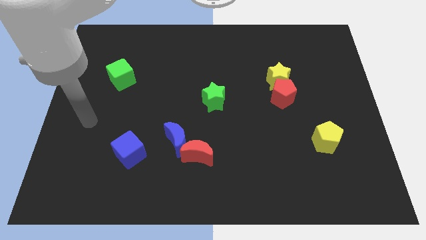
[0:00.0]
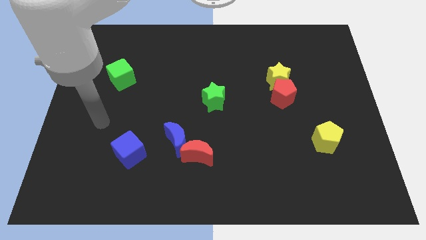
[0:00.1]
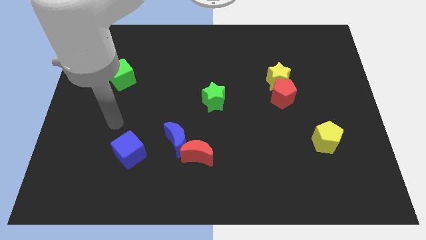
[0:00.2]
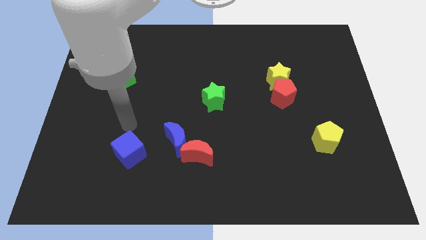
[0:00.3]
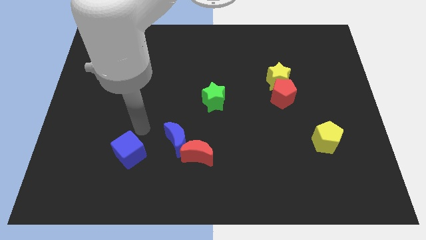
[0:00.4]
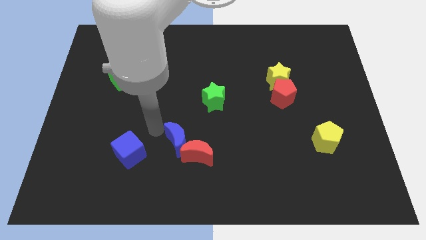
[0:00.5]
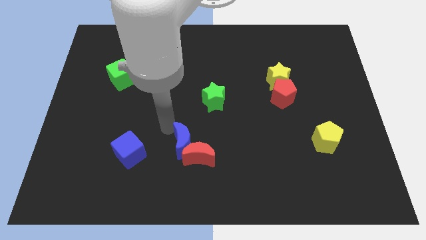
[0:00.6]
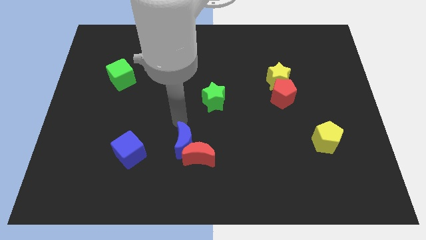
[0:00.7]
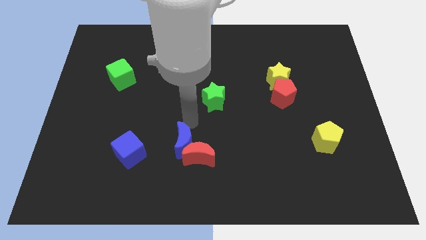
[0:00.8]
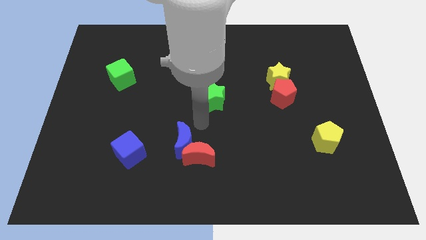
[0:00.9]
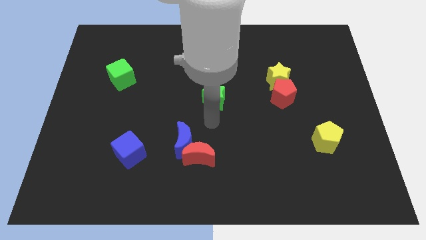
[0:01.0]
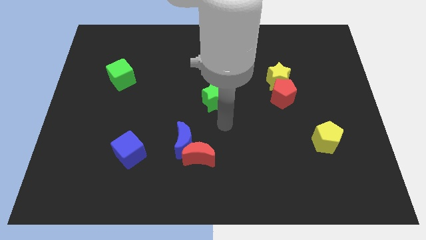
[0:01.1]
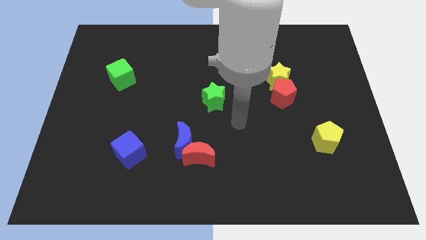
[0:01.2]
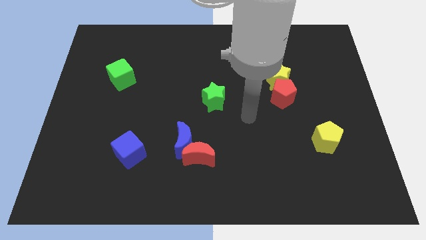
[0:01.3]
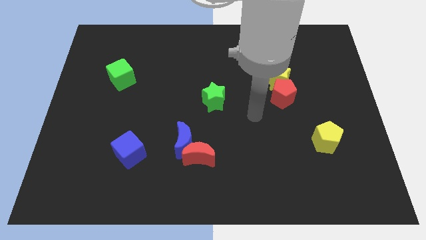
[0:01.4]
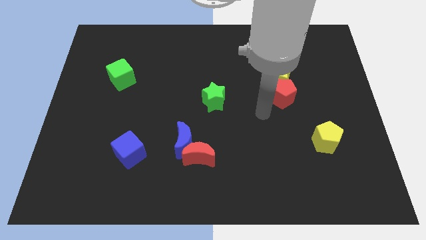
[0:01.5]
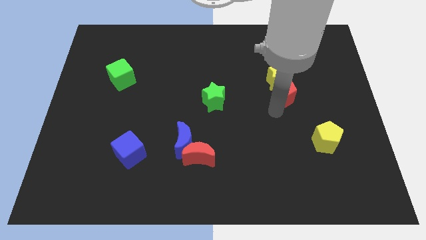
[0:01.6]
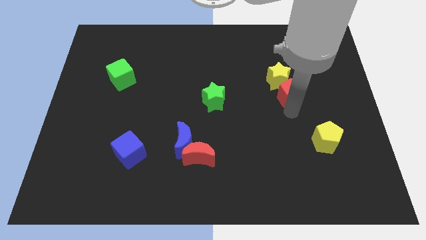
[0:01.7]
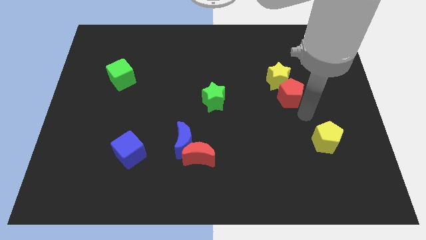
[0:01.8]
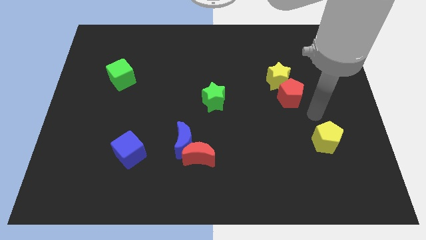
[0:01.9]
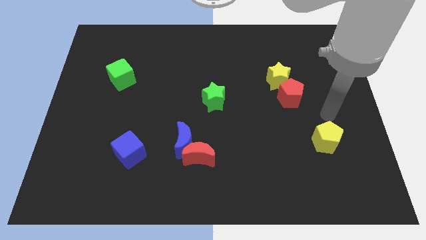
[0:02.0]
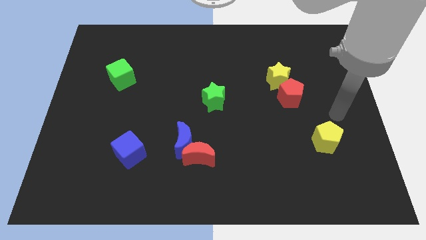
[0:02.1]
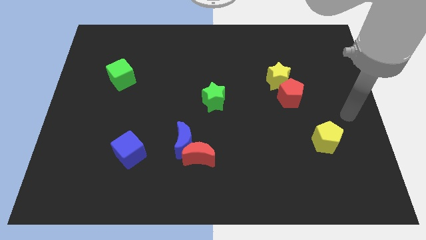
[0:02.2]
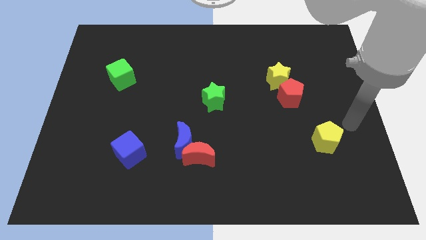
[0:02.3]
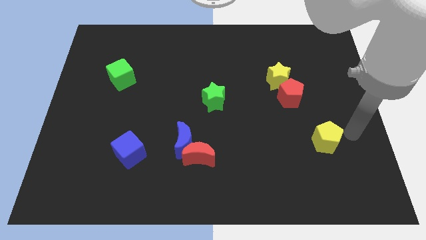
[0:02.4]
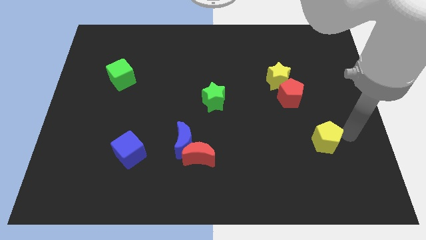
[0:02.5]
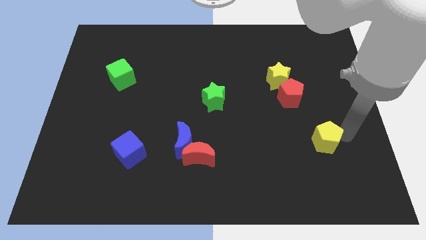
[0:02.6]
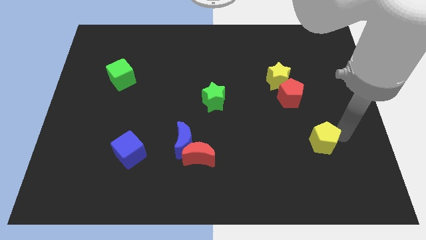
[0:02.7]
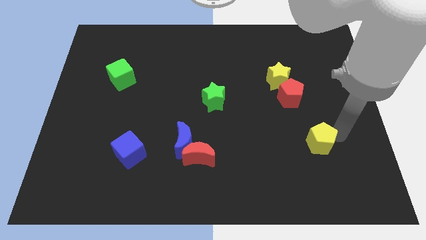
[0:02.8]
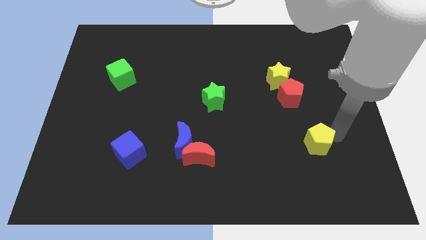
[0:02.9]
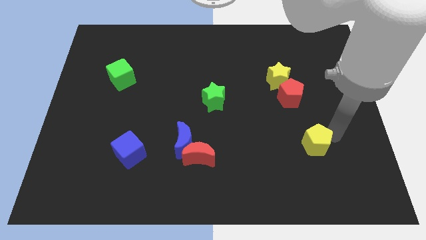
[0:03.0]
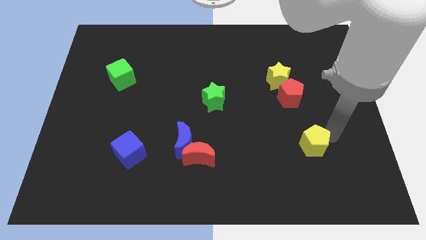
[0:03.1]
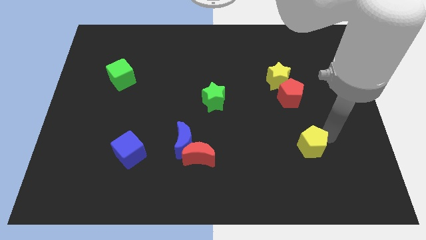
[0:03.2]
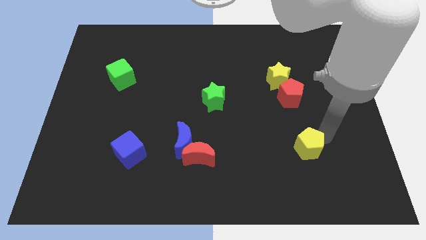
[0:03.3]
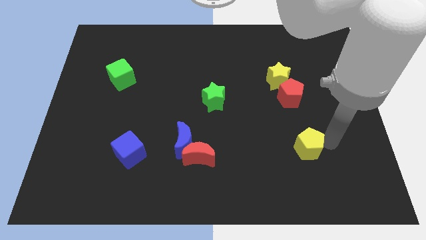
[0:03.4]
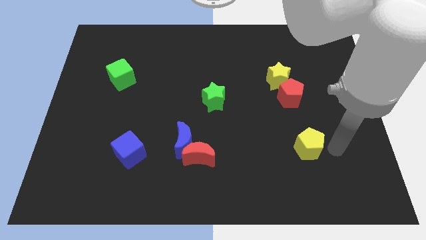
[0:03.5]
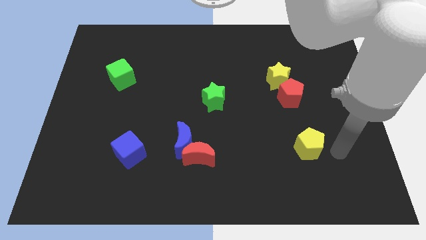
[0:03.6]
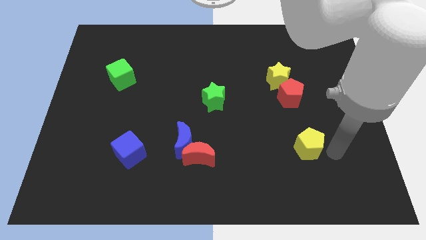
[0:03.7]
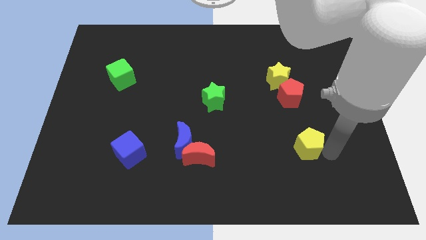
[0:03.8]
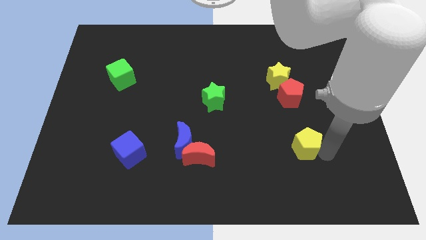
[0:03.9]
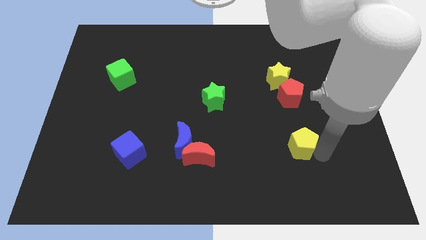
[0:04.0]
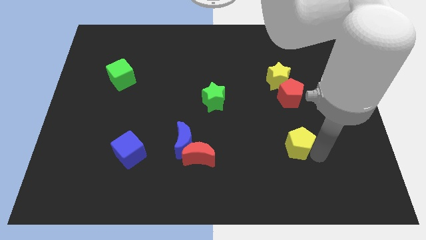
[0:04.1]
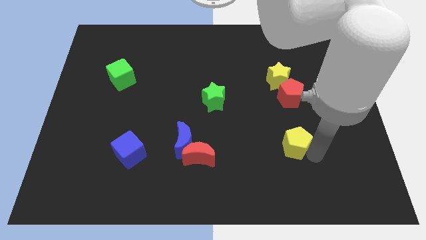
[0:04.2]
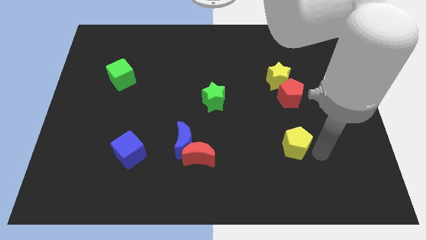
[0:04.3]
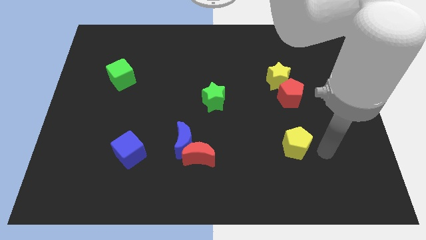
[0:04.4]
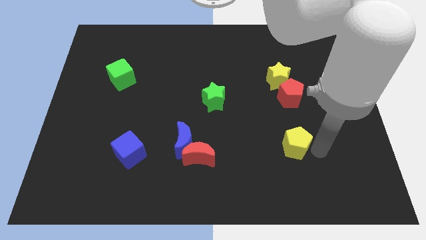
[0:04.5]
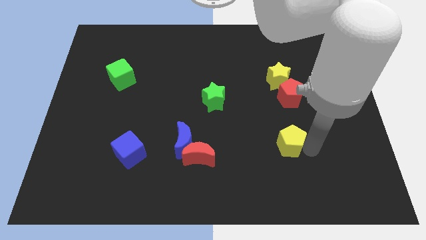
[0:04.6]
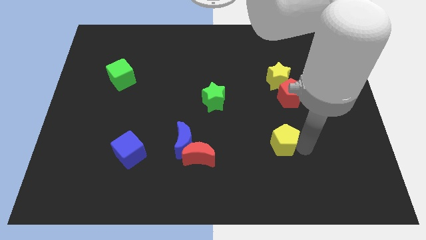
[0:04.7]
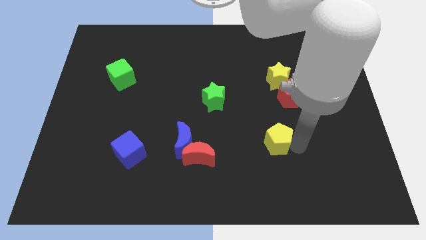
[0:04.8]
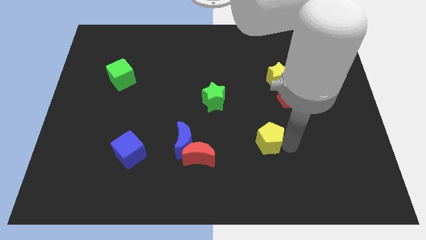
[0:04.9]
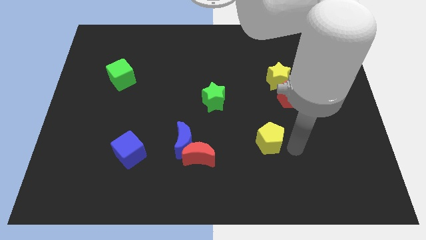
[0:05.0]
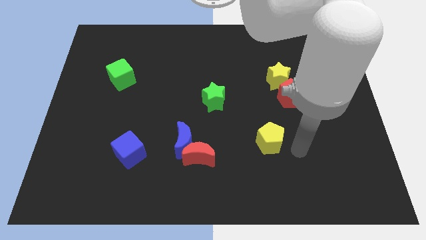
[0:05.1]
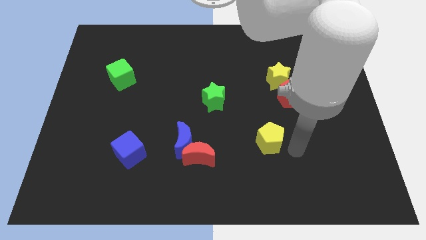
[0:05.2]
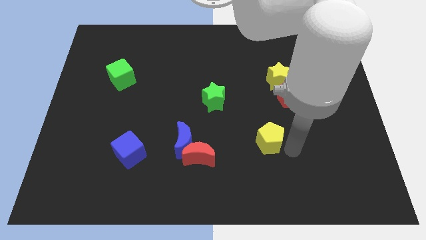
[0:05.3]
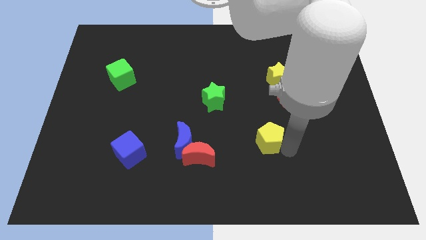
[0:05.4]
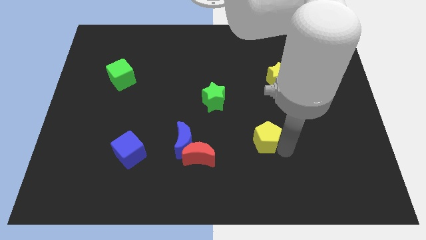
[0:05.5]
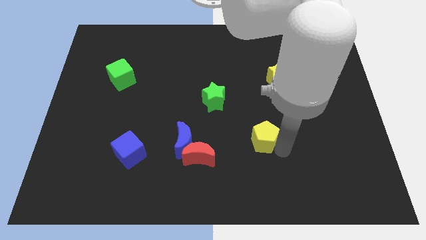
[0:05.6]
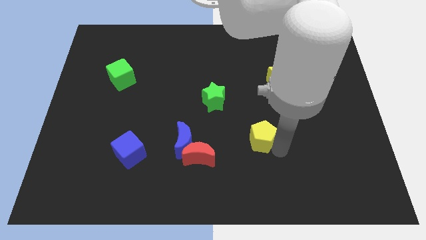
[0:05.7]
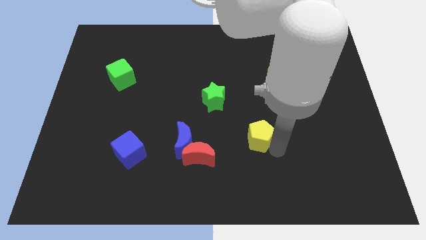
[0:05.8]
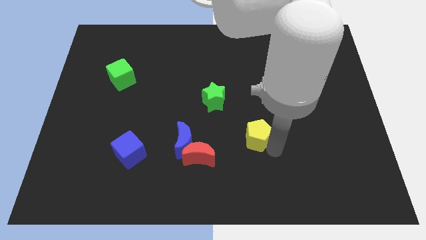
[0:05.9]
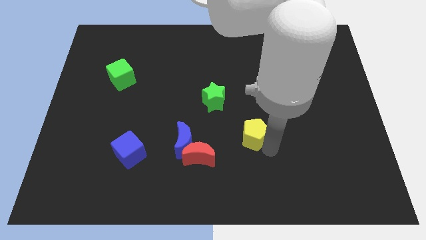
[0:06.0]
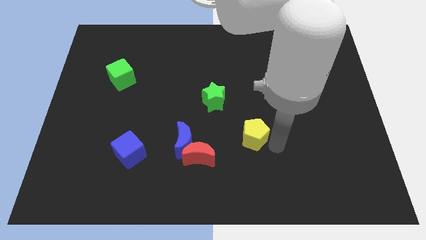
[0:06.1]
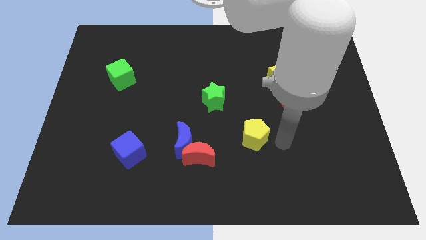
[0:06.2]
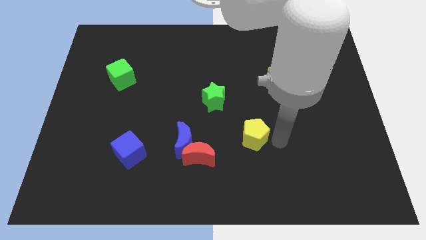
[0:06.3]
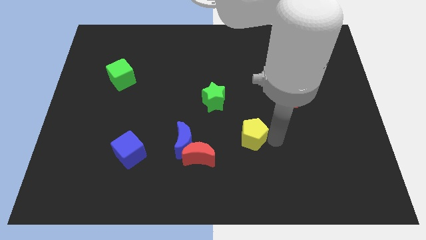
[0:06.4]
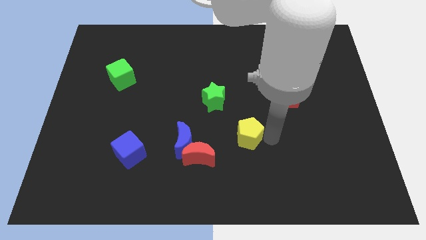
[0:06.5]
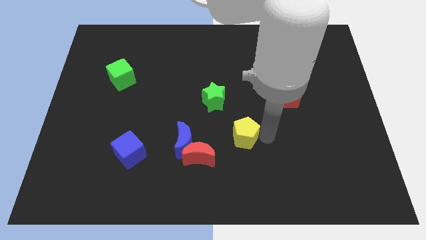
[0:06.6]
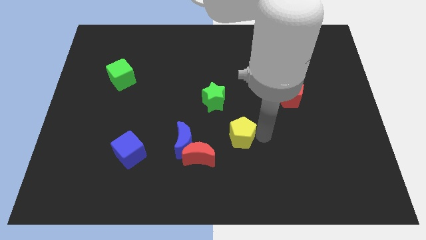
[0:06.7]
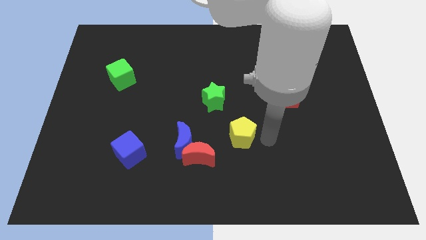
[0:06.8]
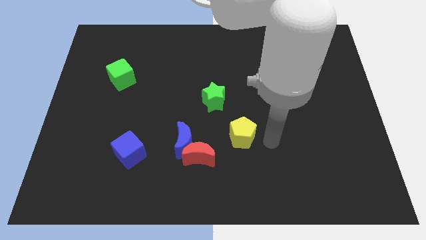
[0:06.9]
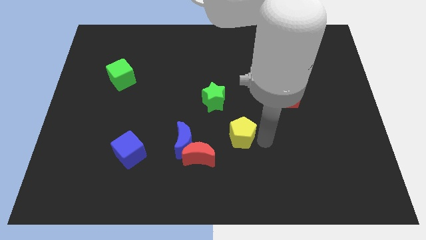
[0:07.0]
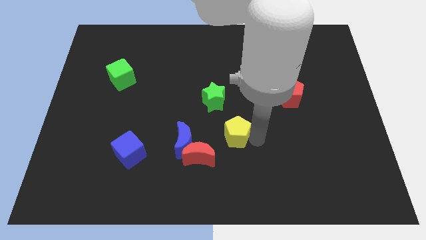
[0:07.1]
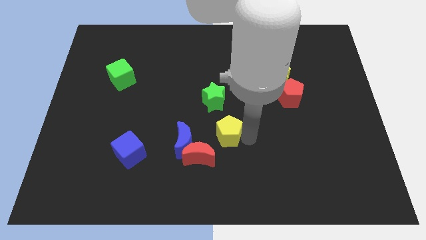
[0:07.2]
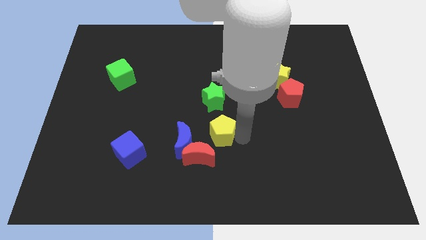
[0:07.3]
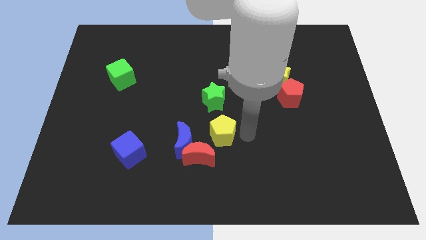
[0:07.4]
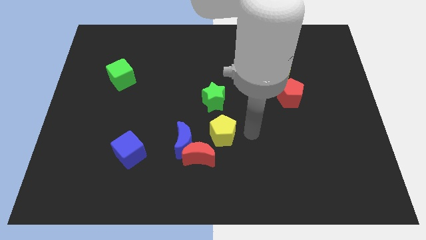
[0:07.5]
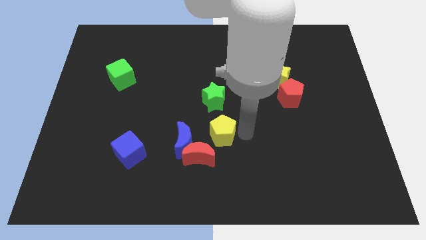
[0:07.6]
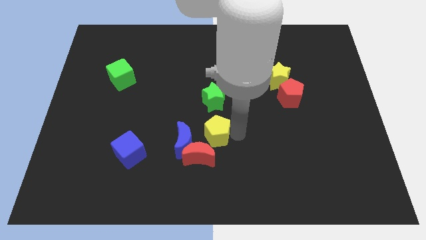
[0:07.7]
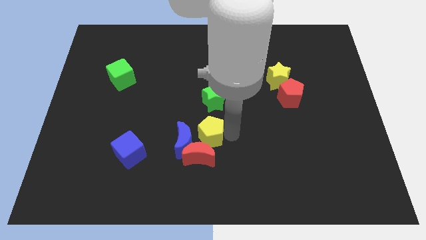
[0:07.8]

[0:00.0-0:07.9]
move the yellow pentagon towards the blue moon

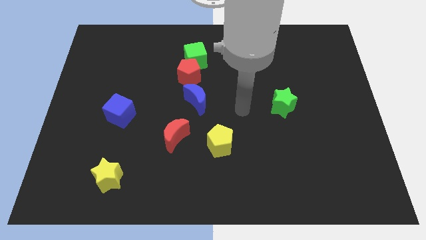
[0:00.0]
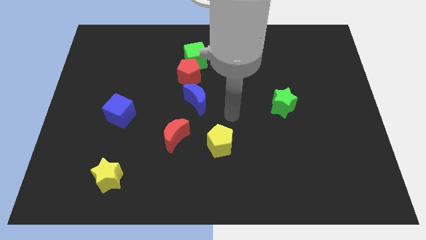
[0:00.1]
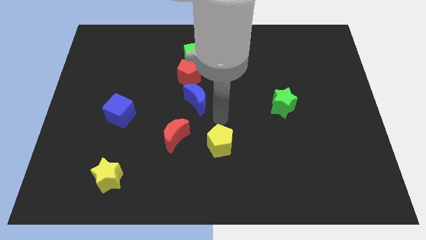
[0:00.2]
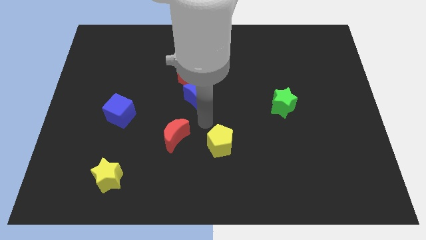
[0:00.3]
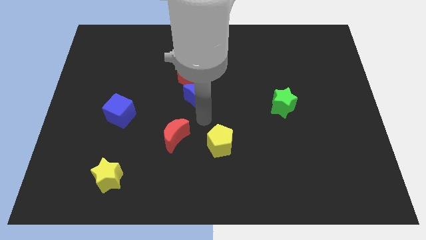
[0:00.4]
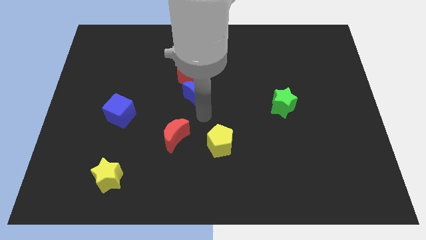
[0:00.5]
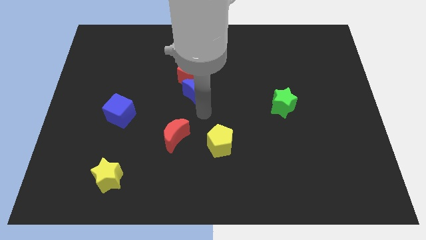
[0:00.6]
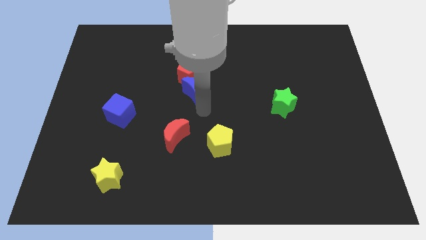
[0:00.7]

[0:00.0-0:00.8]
push the blue moon close to the red pentagon

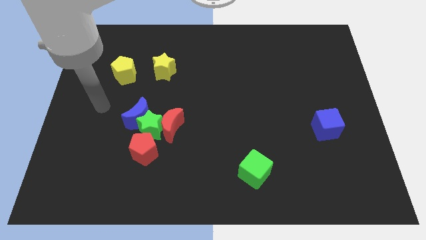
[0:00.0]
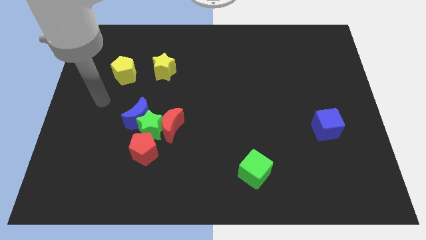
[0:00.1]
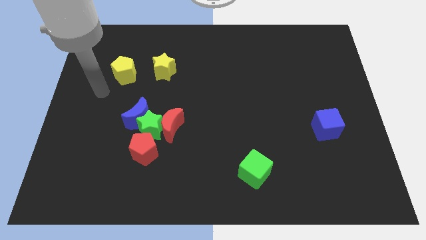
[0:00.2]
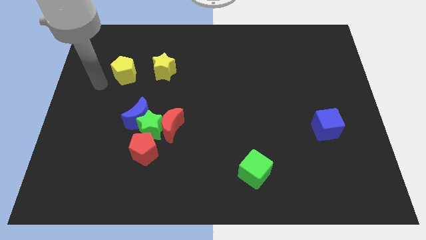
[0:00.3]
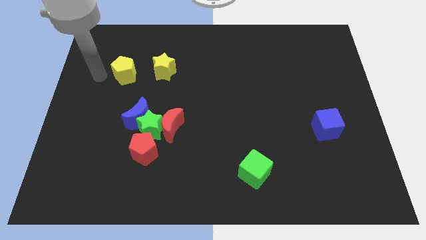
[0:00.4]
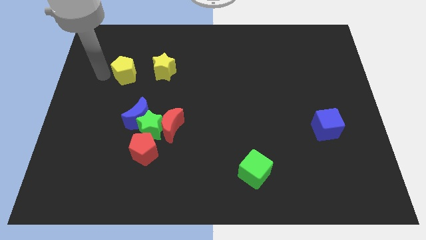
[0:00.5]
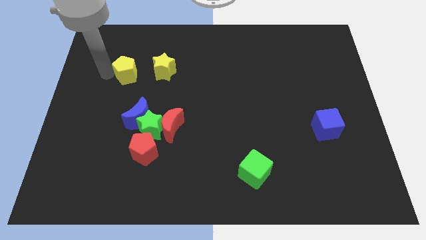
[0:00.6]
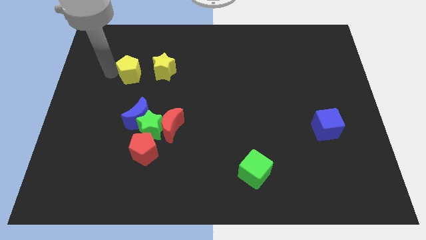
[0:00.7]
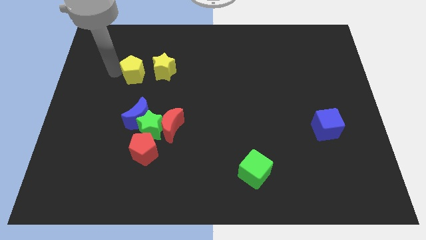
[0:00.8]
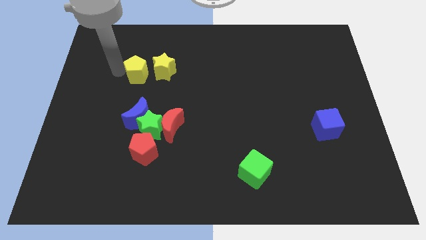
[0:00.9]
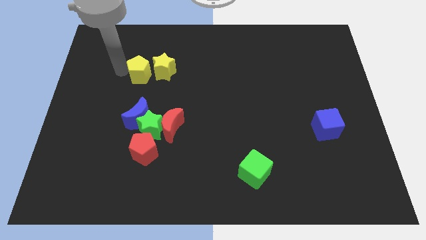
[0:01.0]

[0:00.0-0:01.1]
put the yellow pentagon next to the yellow star
